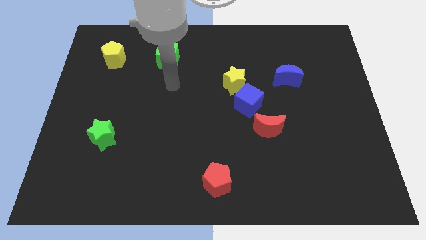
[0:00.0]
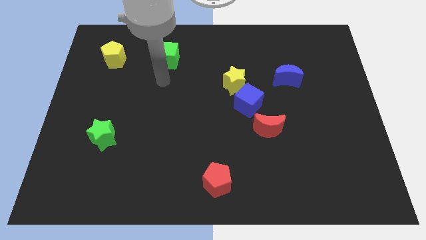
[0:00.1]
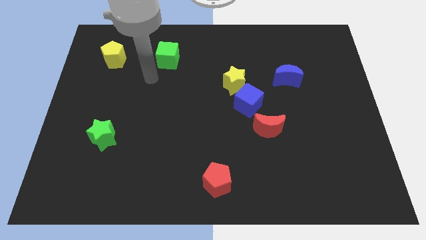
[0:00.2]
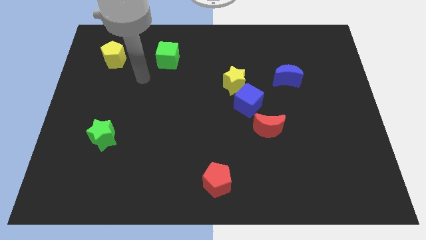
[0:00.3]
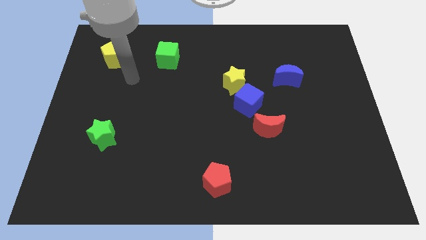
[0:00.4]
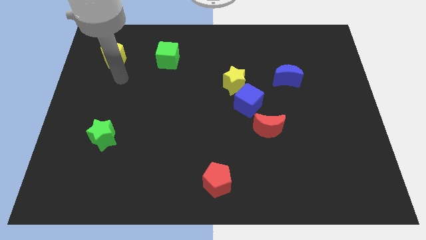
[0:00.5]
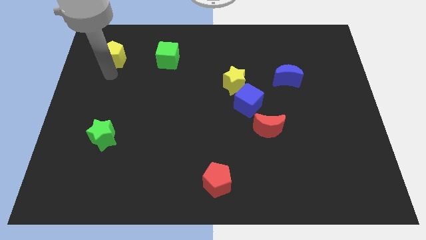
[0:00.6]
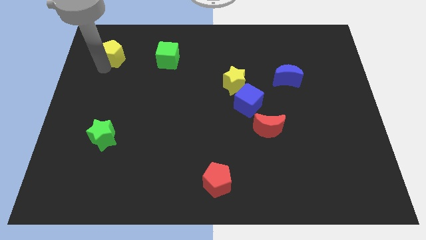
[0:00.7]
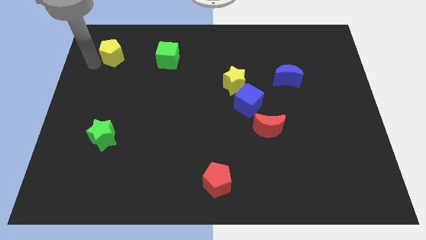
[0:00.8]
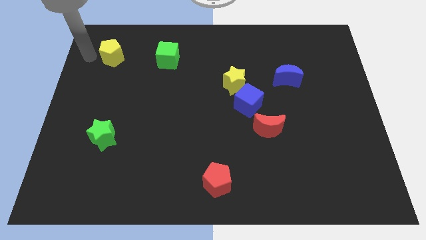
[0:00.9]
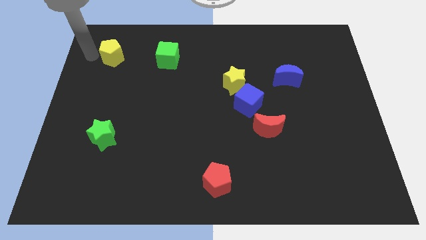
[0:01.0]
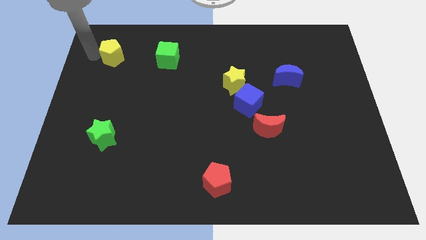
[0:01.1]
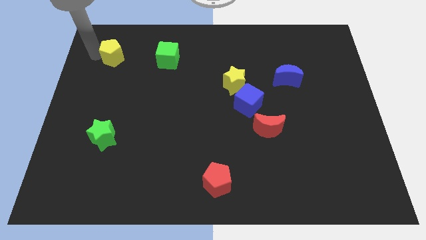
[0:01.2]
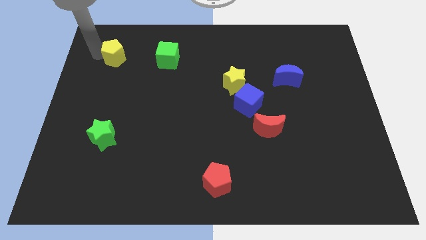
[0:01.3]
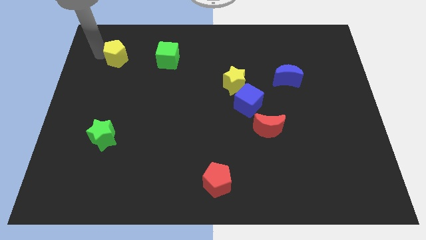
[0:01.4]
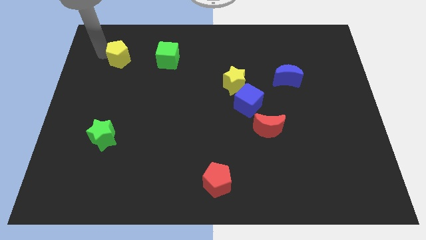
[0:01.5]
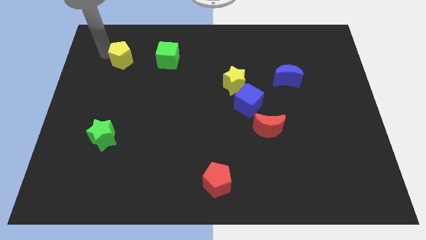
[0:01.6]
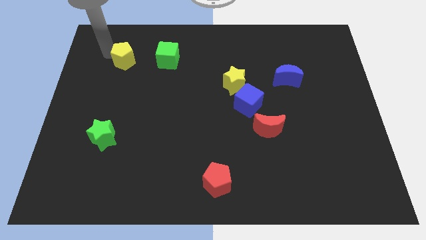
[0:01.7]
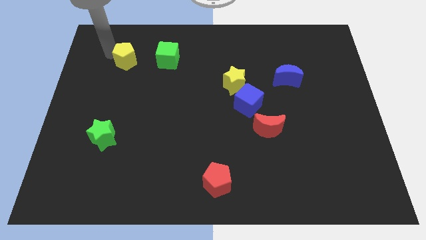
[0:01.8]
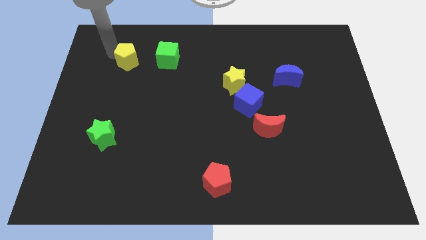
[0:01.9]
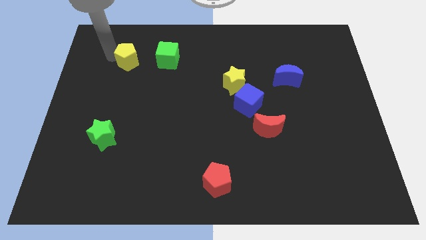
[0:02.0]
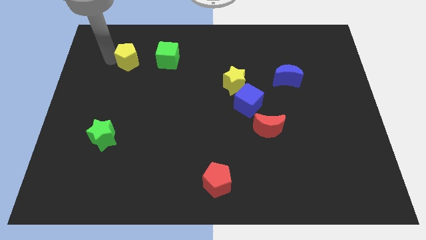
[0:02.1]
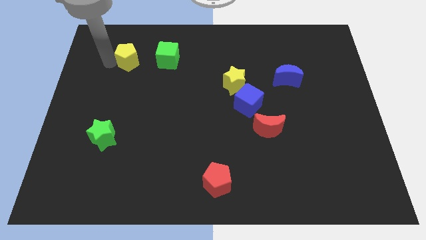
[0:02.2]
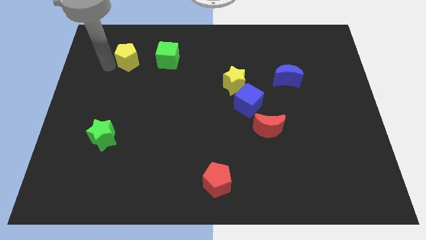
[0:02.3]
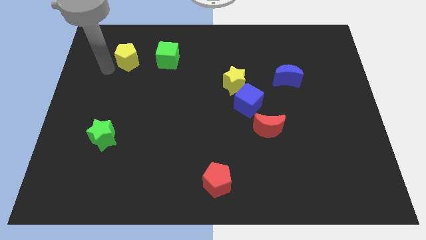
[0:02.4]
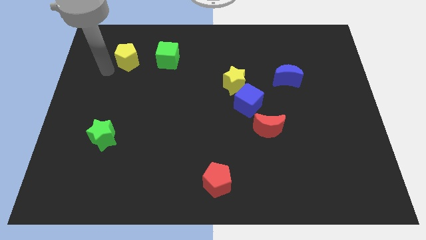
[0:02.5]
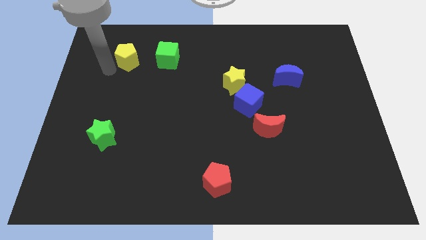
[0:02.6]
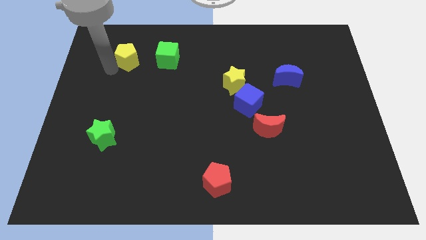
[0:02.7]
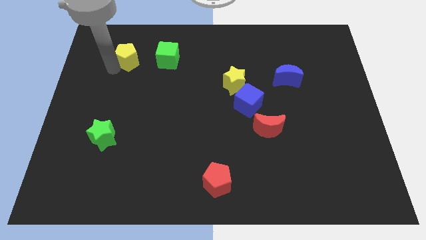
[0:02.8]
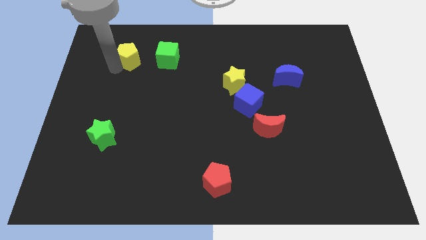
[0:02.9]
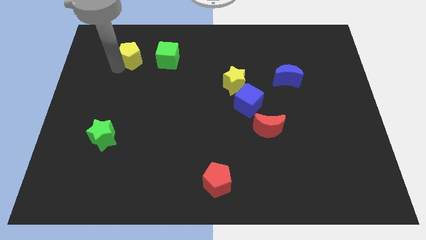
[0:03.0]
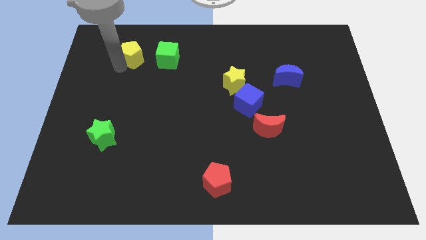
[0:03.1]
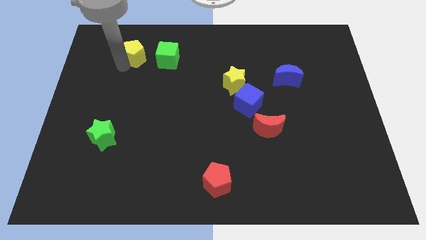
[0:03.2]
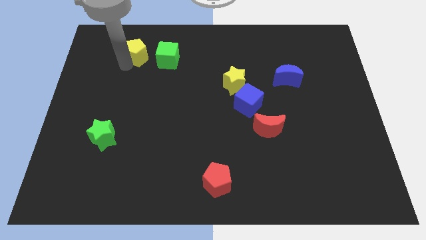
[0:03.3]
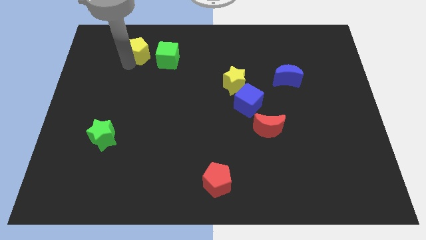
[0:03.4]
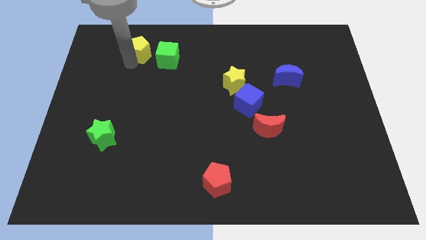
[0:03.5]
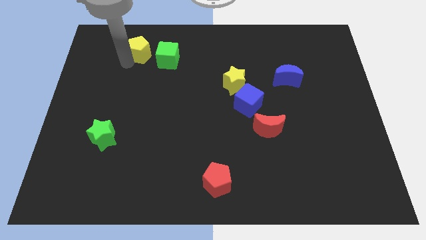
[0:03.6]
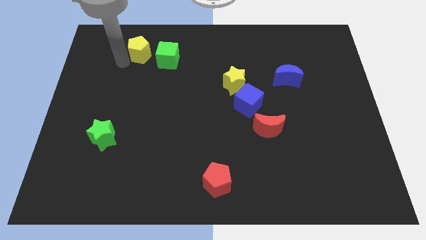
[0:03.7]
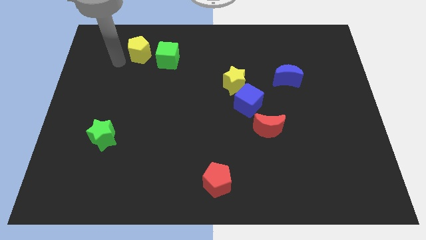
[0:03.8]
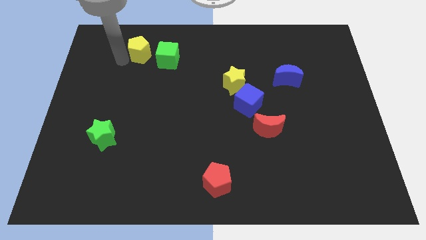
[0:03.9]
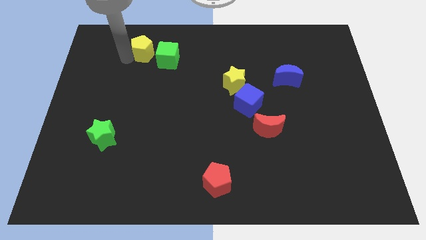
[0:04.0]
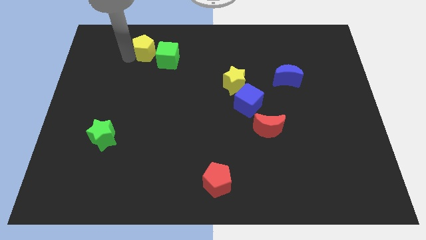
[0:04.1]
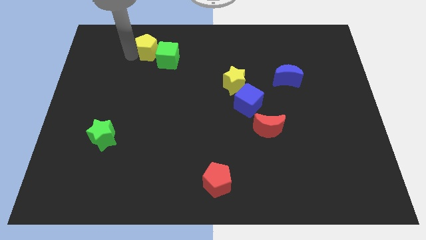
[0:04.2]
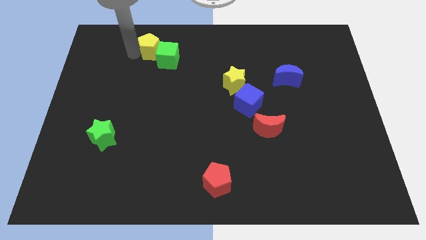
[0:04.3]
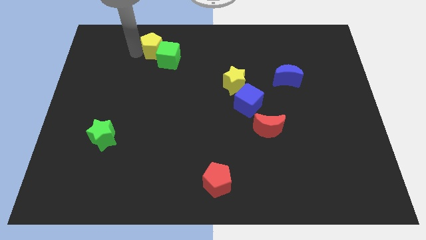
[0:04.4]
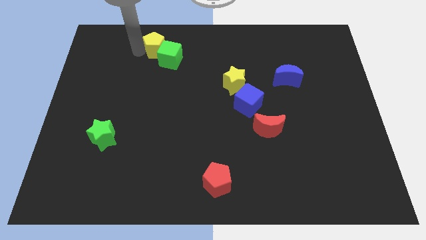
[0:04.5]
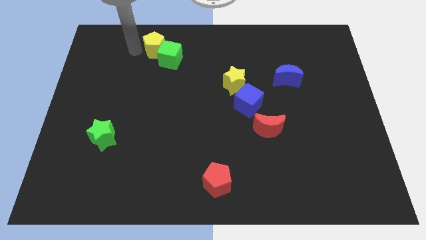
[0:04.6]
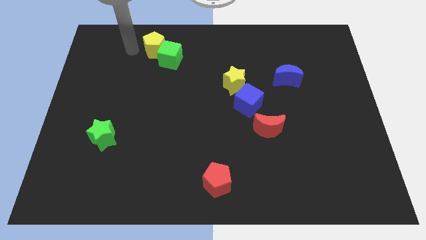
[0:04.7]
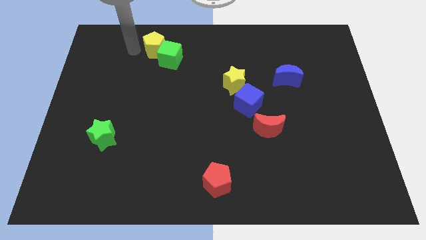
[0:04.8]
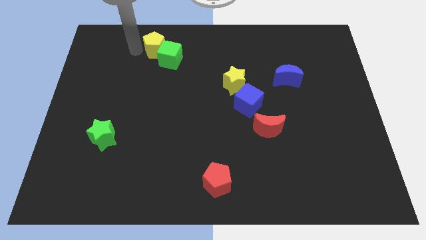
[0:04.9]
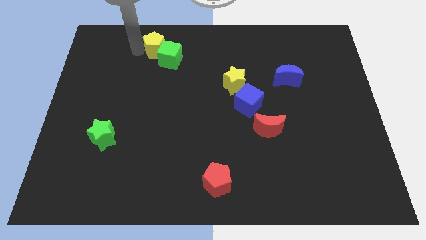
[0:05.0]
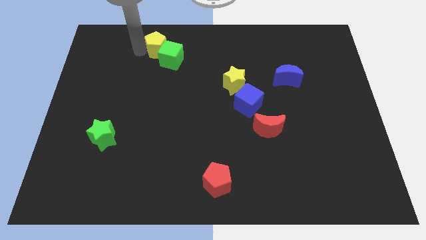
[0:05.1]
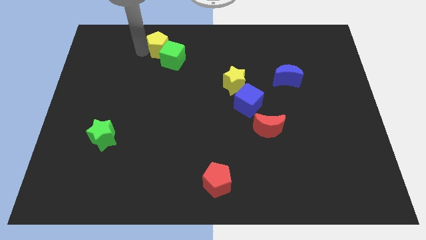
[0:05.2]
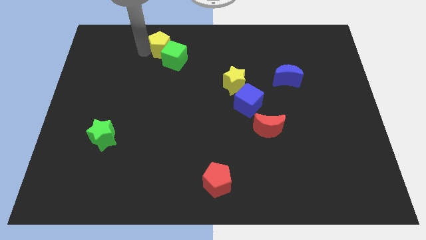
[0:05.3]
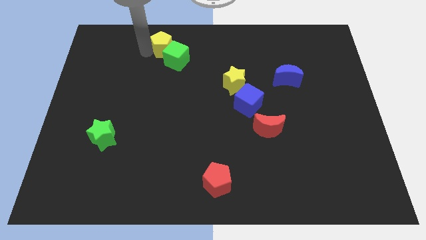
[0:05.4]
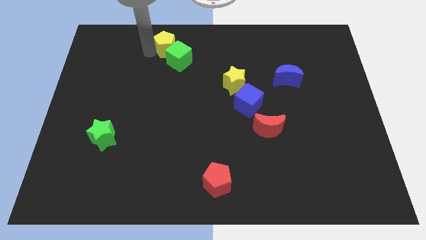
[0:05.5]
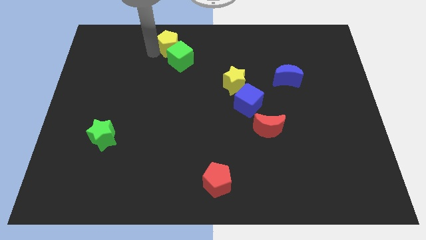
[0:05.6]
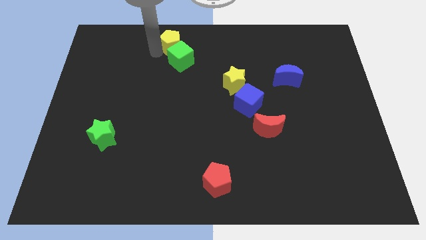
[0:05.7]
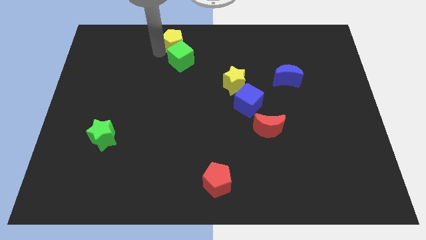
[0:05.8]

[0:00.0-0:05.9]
put the yellow pentagon to the top side
